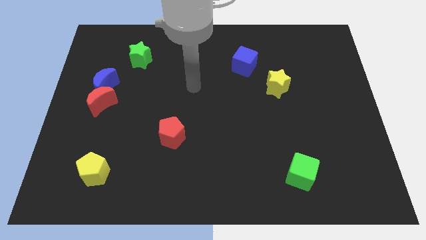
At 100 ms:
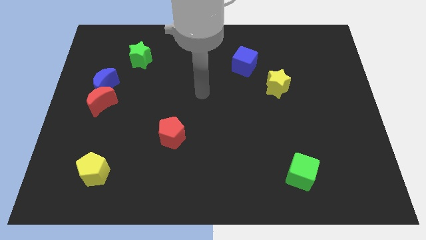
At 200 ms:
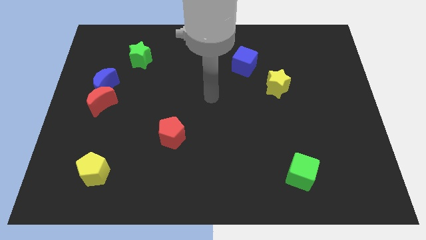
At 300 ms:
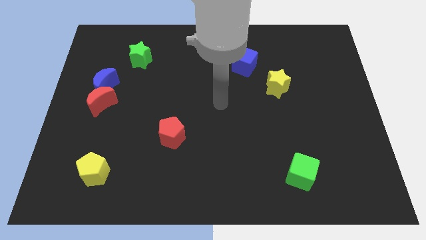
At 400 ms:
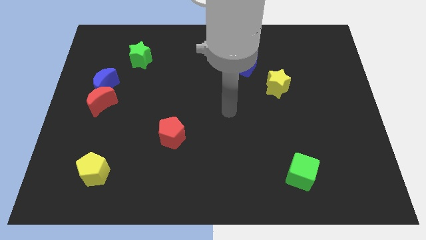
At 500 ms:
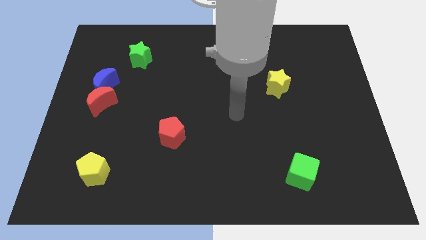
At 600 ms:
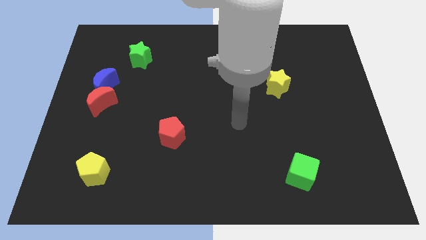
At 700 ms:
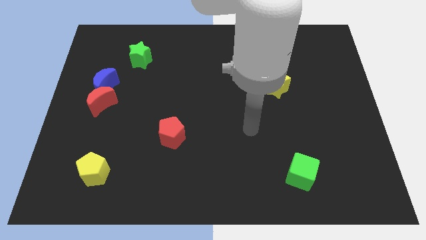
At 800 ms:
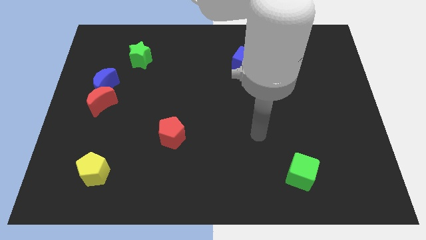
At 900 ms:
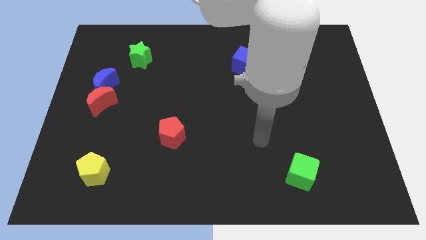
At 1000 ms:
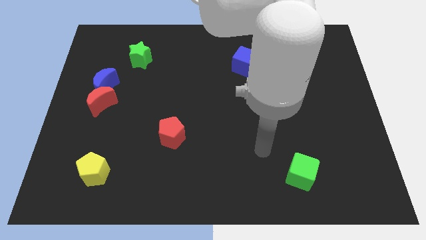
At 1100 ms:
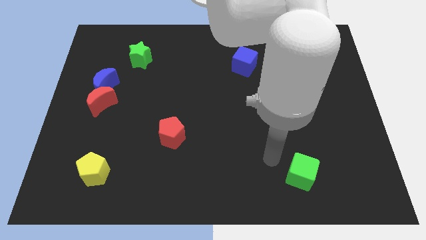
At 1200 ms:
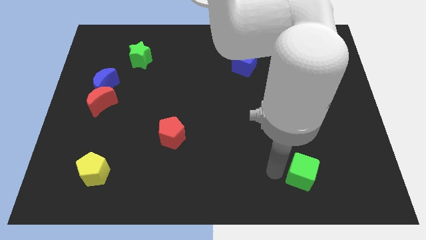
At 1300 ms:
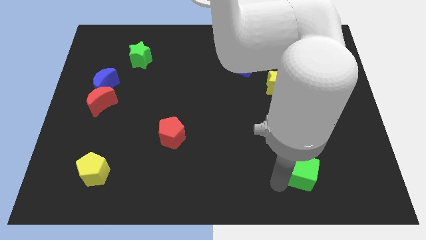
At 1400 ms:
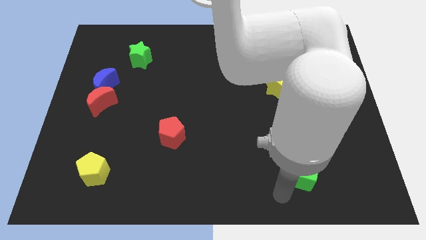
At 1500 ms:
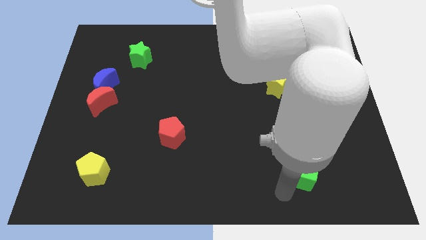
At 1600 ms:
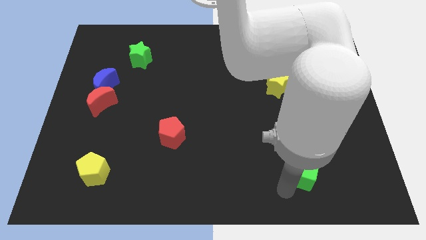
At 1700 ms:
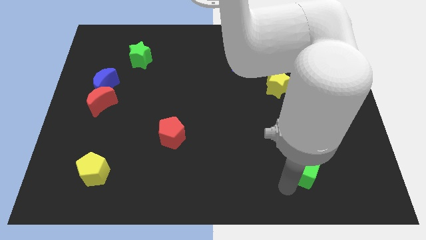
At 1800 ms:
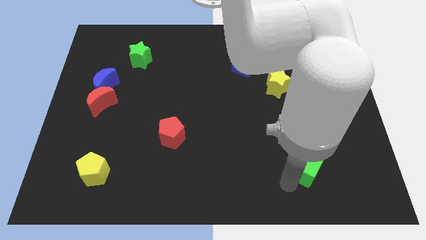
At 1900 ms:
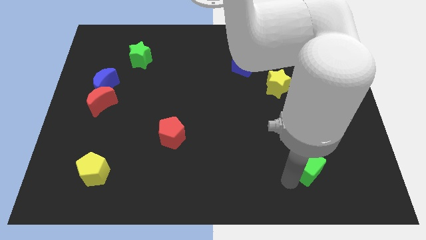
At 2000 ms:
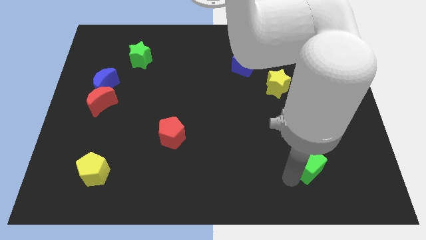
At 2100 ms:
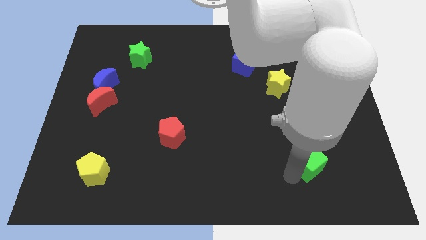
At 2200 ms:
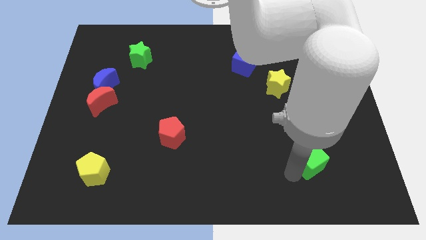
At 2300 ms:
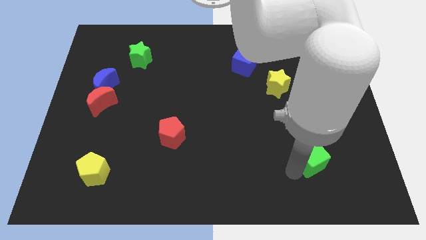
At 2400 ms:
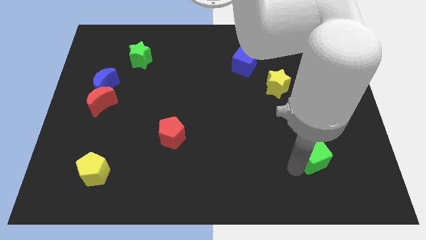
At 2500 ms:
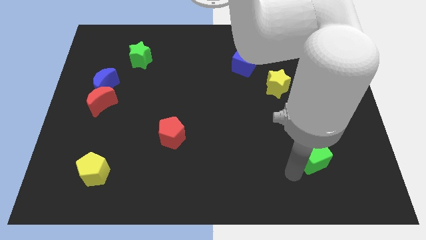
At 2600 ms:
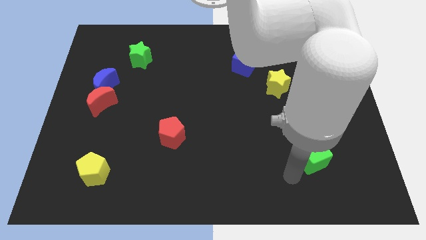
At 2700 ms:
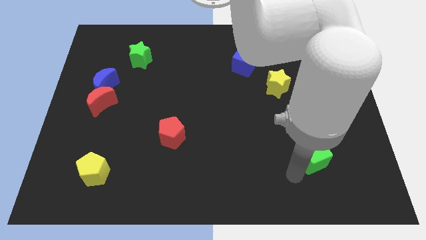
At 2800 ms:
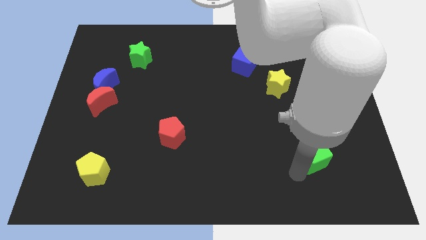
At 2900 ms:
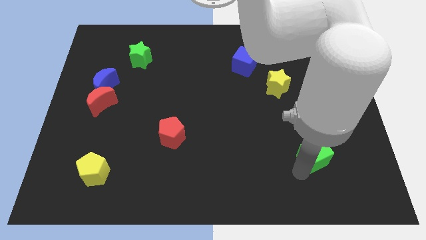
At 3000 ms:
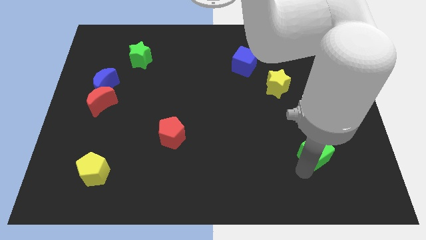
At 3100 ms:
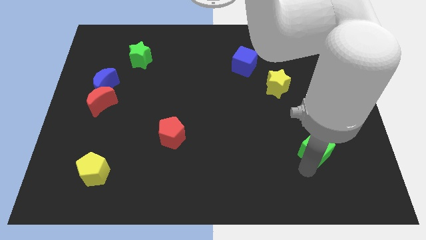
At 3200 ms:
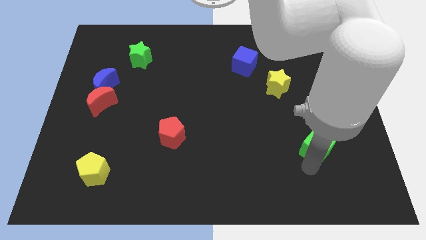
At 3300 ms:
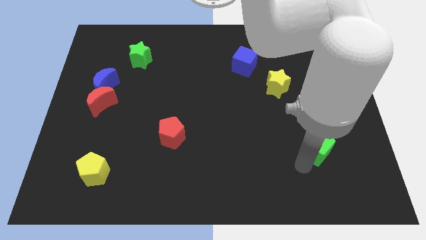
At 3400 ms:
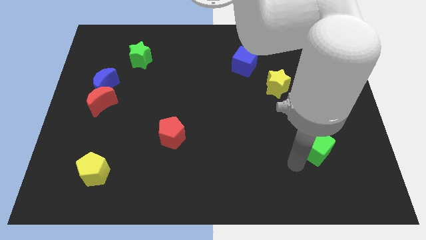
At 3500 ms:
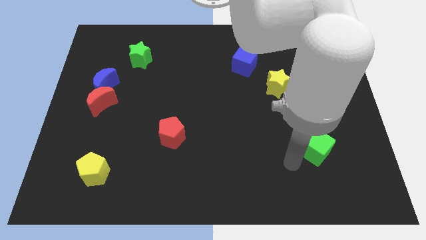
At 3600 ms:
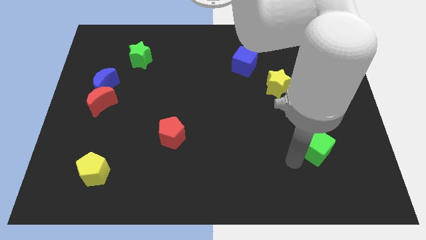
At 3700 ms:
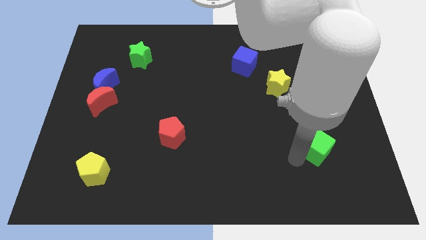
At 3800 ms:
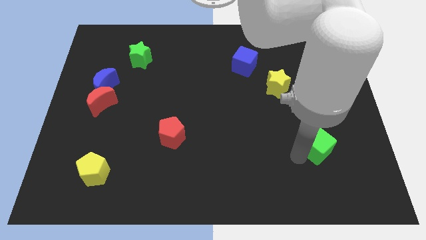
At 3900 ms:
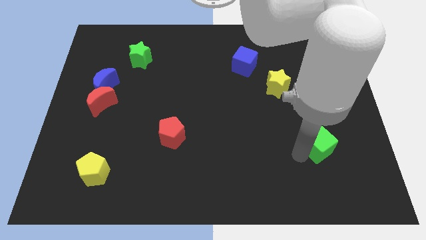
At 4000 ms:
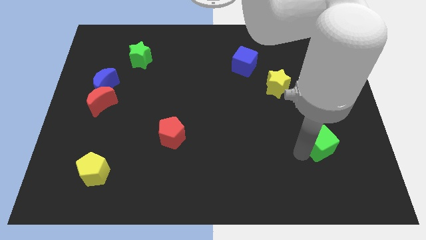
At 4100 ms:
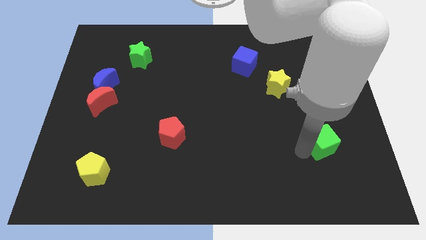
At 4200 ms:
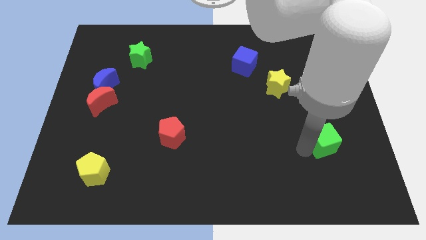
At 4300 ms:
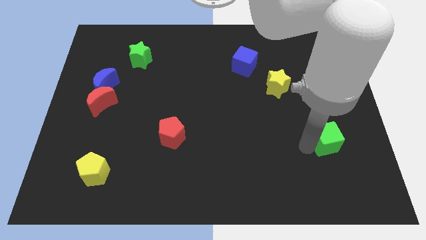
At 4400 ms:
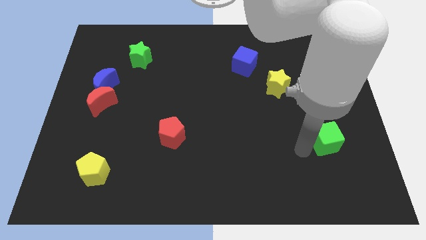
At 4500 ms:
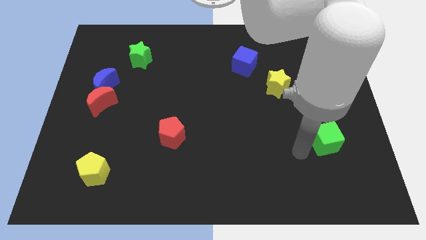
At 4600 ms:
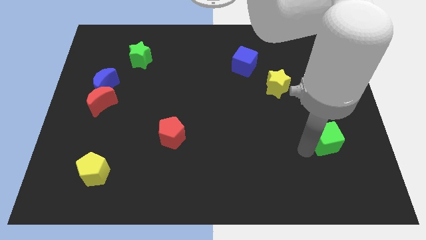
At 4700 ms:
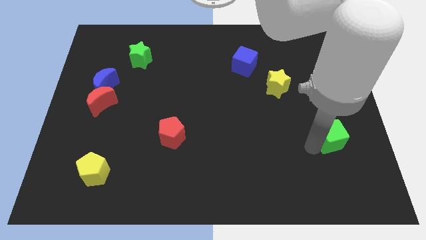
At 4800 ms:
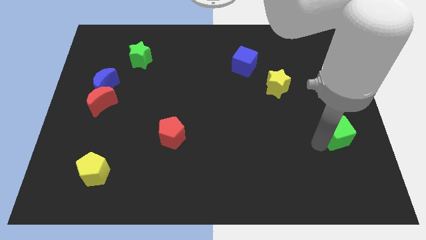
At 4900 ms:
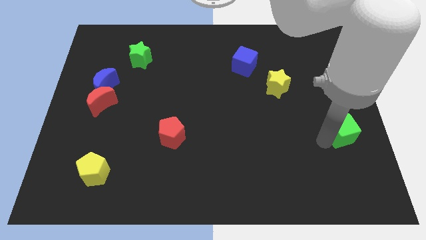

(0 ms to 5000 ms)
slide the green cube to the right side

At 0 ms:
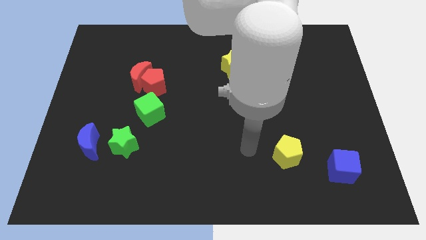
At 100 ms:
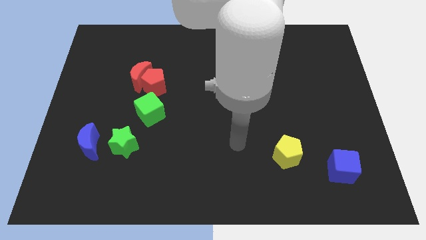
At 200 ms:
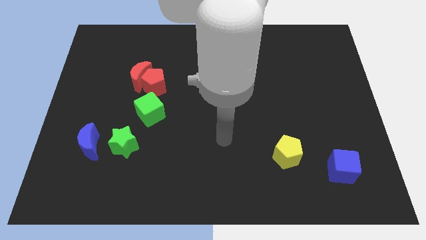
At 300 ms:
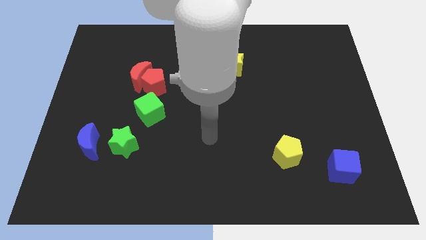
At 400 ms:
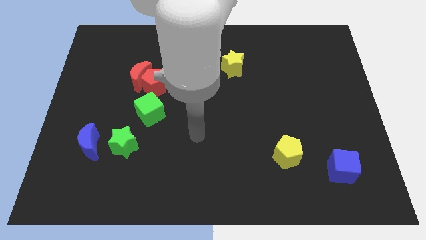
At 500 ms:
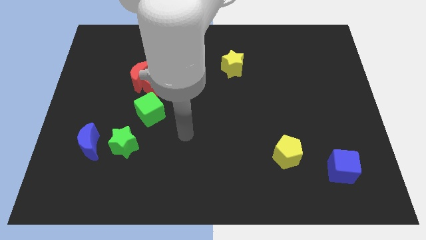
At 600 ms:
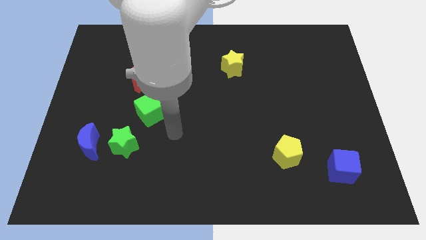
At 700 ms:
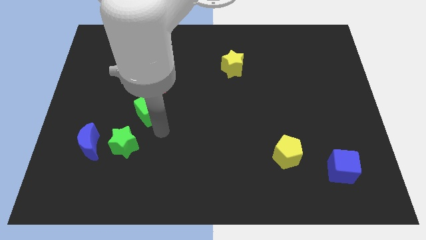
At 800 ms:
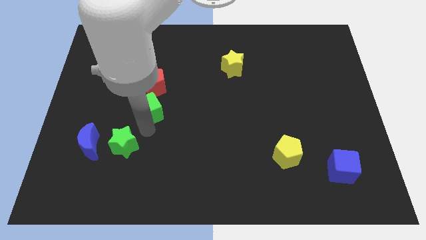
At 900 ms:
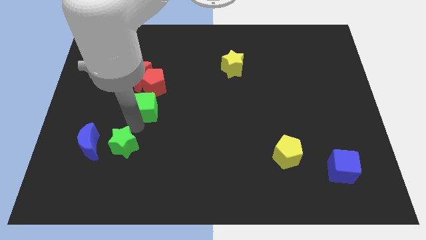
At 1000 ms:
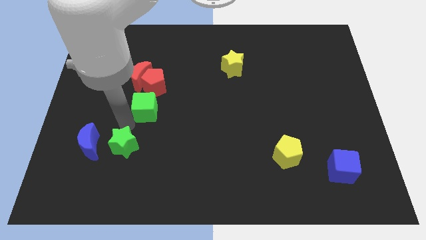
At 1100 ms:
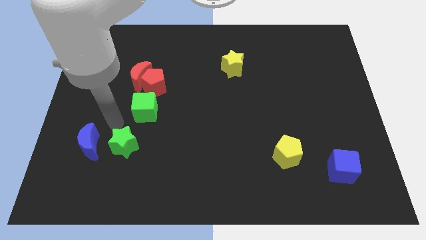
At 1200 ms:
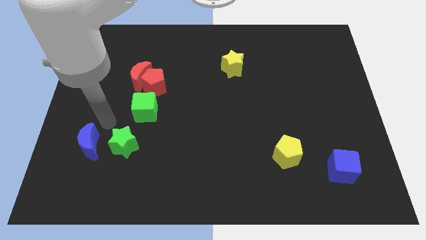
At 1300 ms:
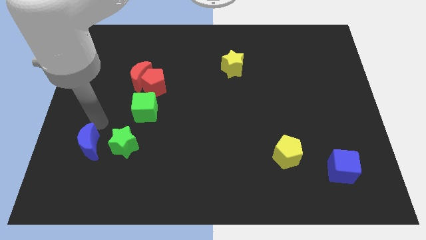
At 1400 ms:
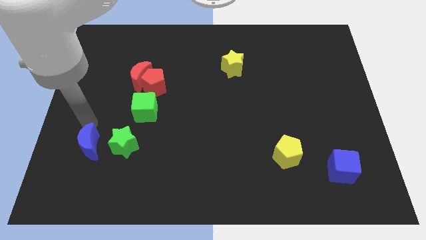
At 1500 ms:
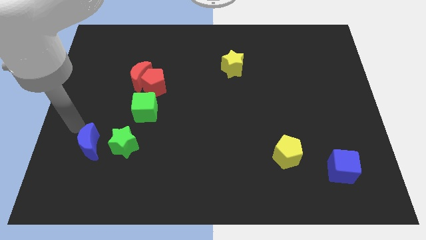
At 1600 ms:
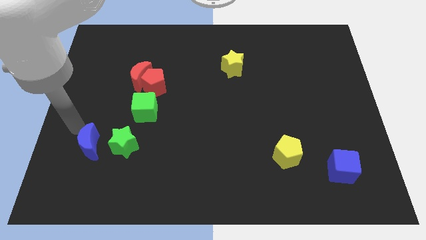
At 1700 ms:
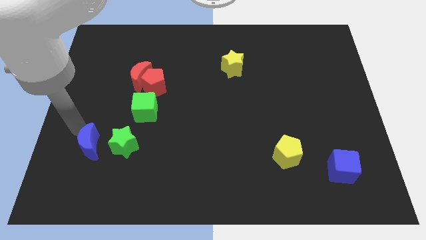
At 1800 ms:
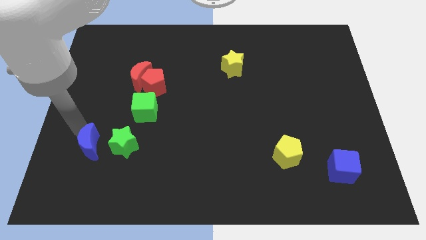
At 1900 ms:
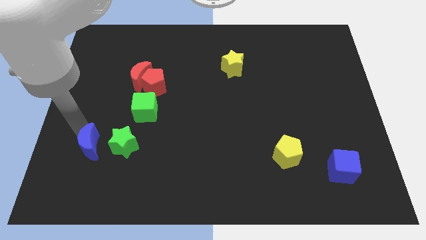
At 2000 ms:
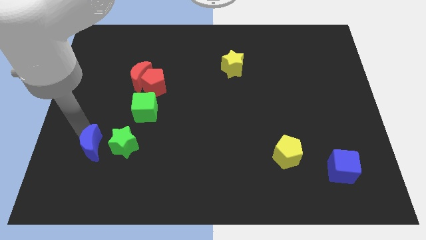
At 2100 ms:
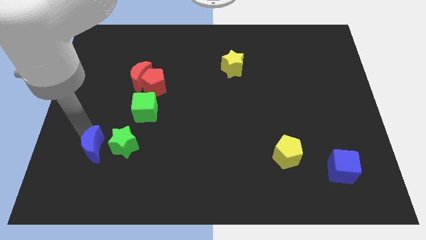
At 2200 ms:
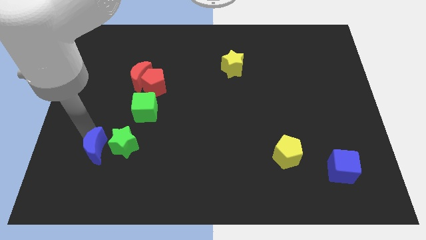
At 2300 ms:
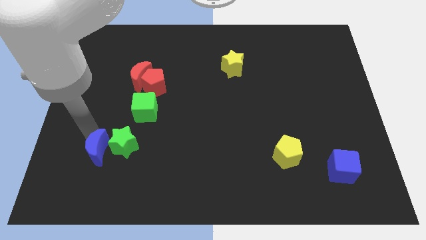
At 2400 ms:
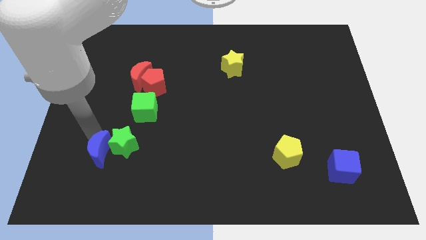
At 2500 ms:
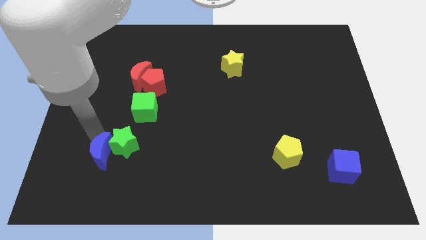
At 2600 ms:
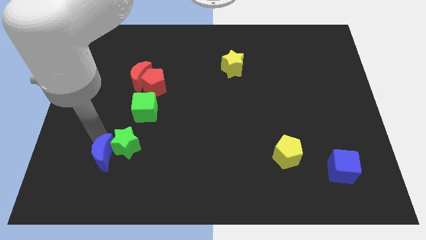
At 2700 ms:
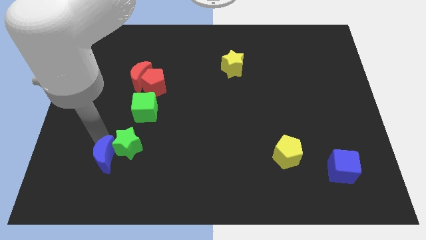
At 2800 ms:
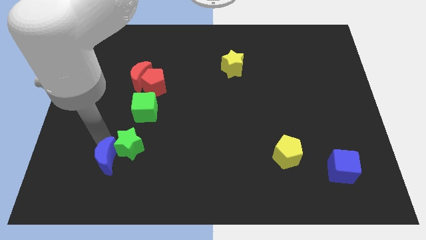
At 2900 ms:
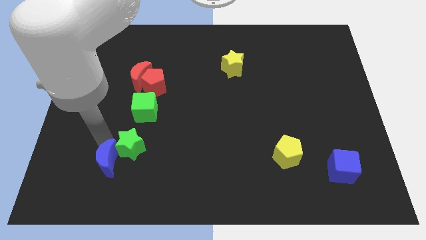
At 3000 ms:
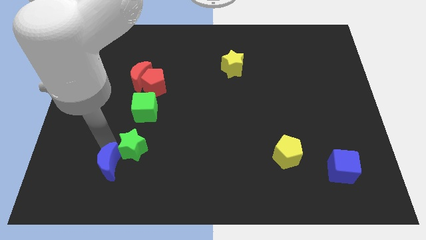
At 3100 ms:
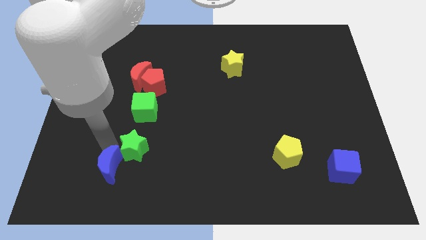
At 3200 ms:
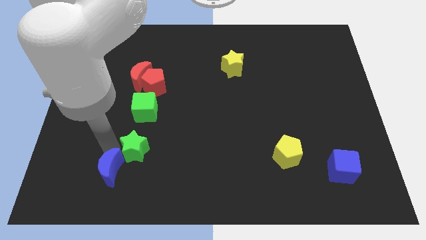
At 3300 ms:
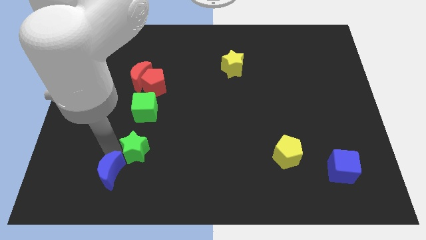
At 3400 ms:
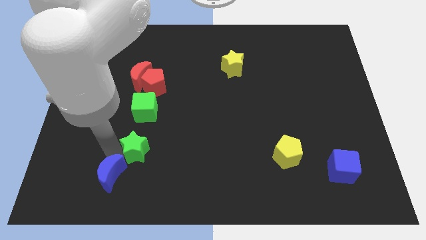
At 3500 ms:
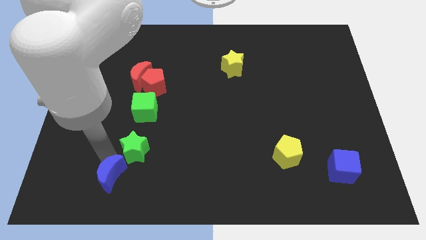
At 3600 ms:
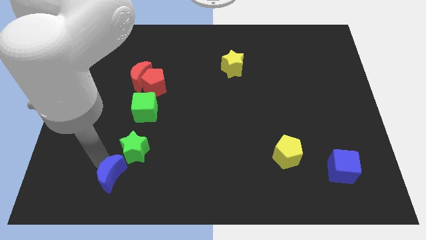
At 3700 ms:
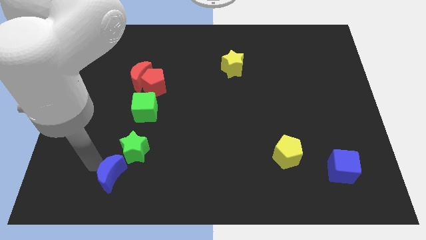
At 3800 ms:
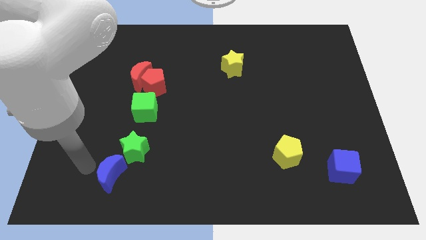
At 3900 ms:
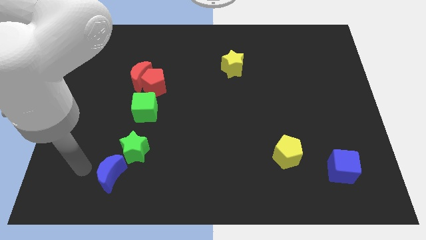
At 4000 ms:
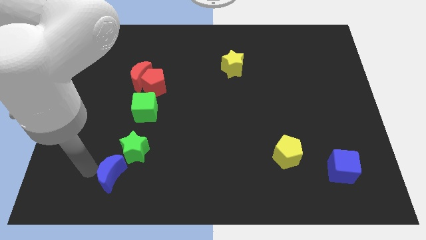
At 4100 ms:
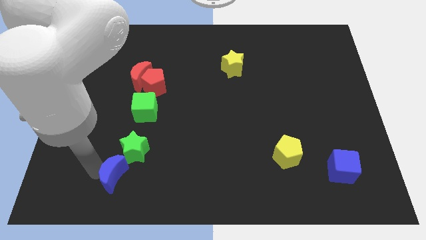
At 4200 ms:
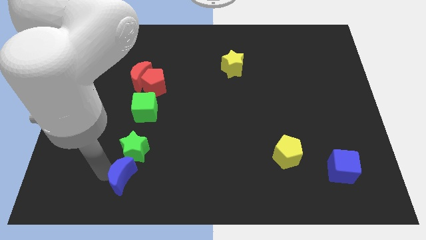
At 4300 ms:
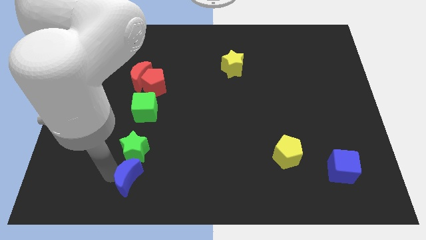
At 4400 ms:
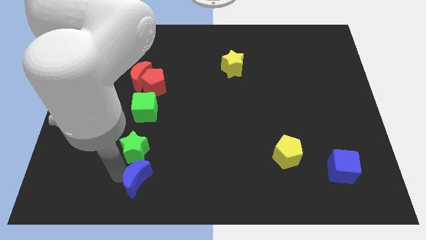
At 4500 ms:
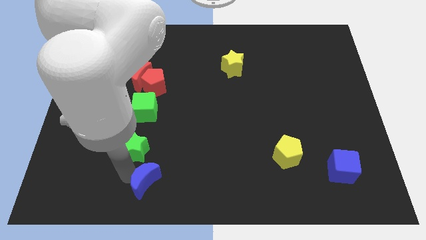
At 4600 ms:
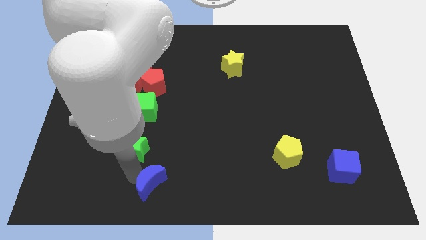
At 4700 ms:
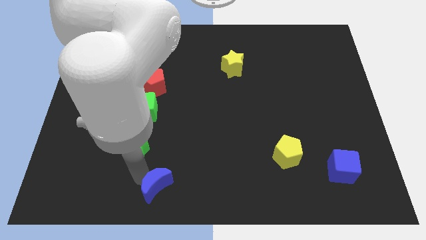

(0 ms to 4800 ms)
put the blue moon to the bottom
